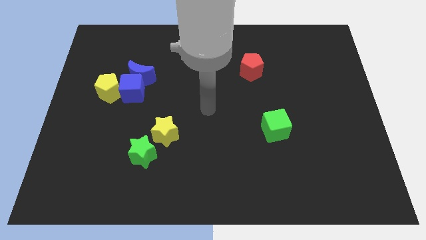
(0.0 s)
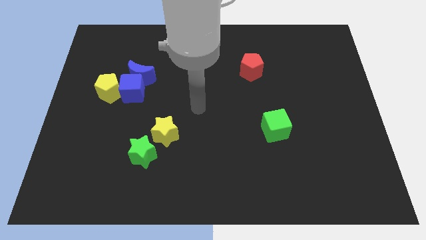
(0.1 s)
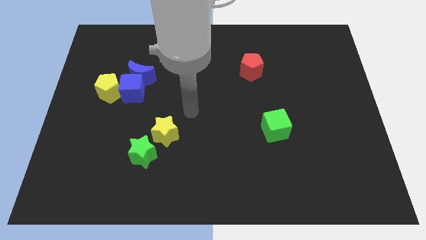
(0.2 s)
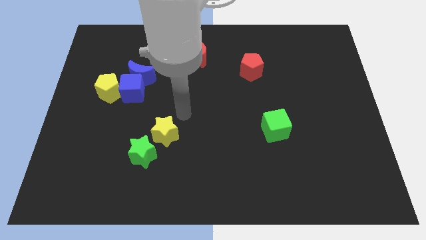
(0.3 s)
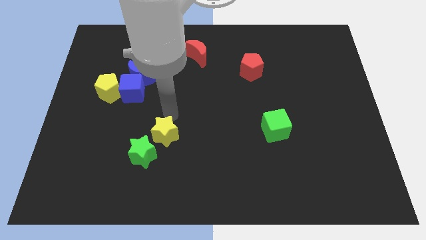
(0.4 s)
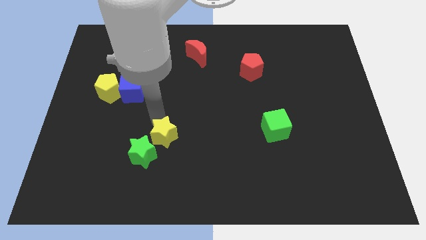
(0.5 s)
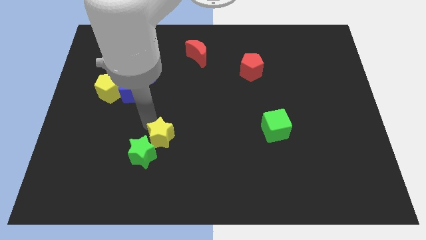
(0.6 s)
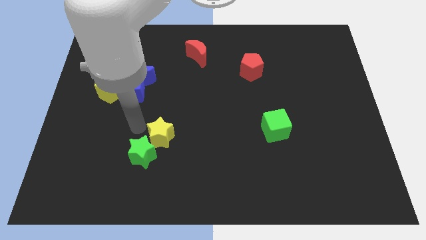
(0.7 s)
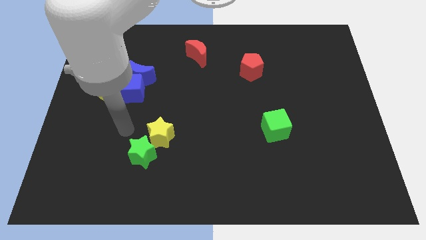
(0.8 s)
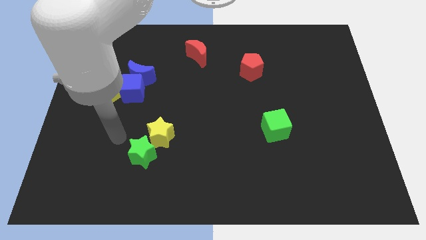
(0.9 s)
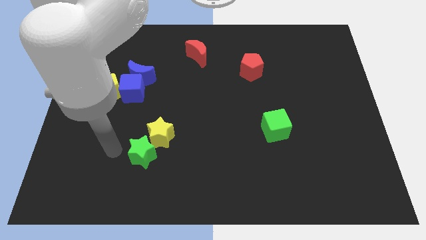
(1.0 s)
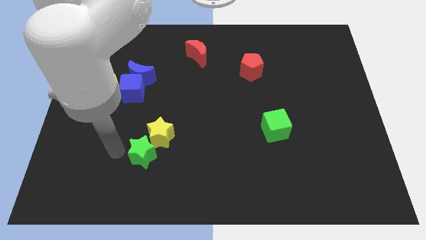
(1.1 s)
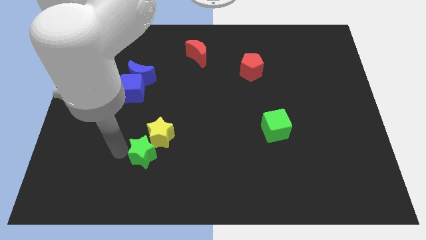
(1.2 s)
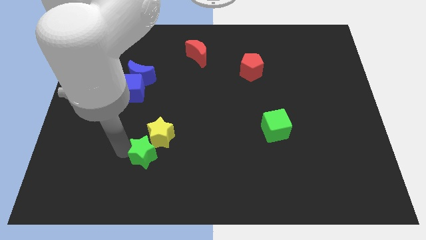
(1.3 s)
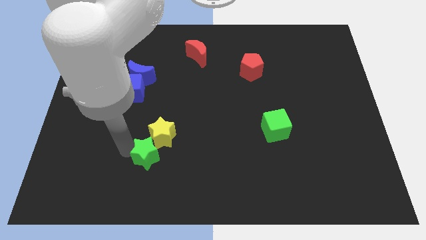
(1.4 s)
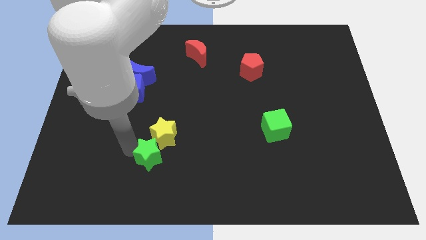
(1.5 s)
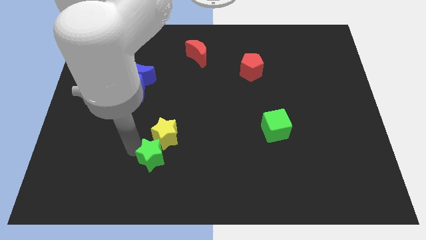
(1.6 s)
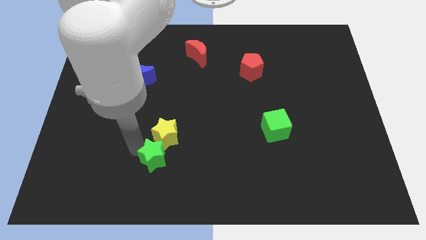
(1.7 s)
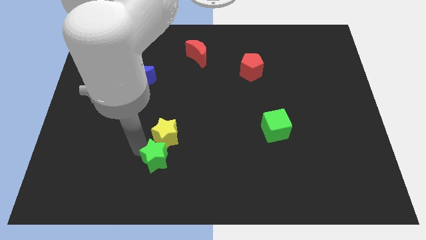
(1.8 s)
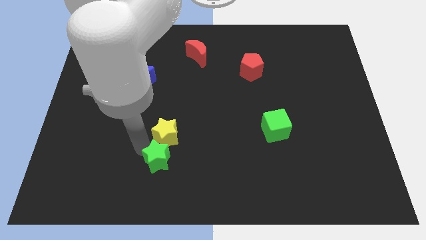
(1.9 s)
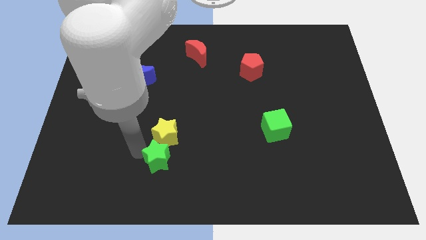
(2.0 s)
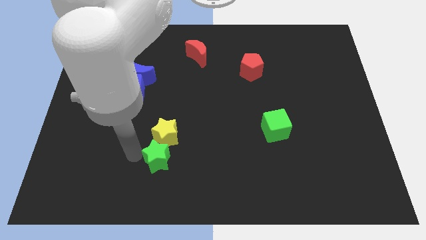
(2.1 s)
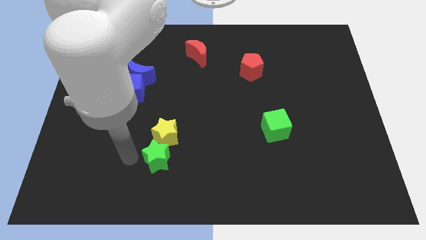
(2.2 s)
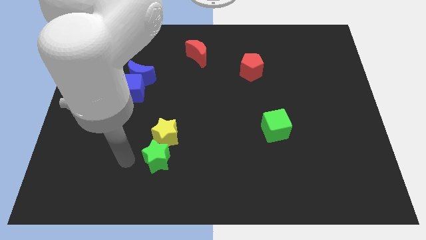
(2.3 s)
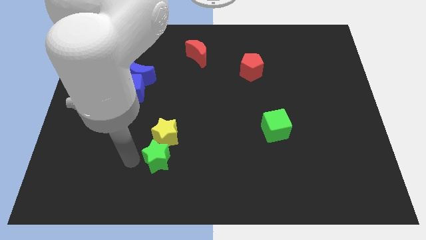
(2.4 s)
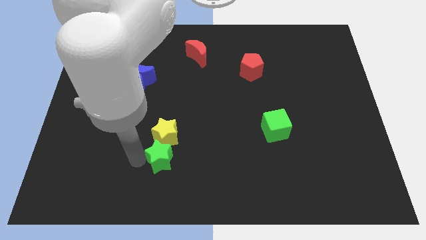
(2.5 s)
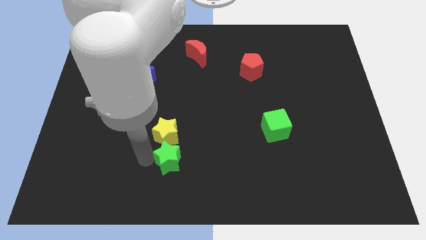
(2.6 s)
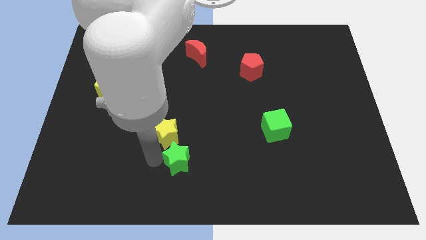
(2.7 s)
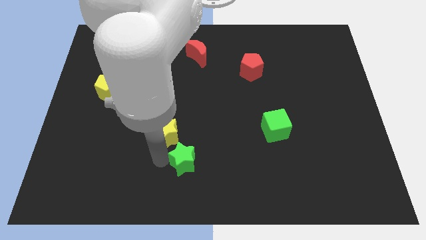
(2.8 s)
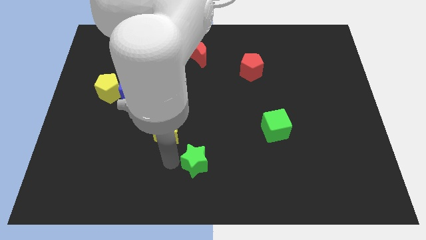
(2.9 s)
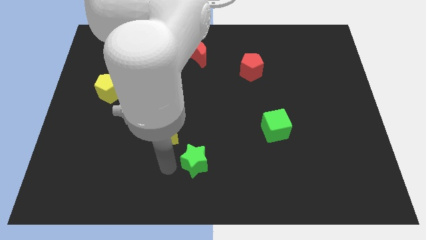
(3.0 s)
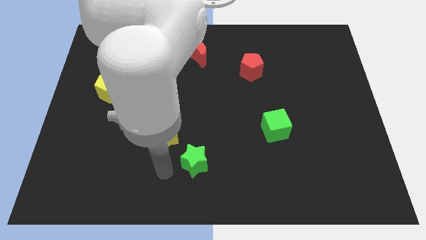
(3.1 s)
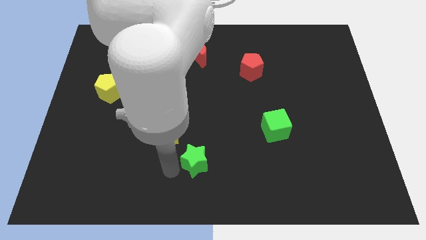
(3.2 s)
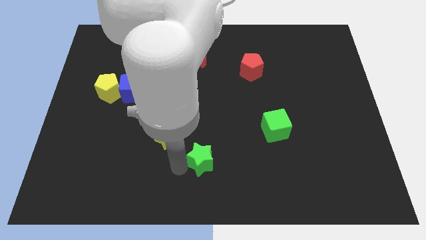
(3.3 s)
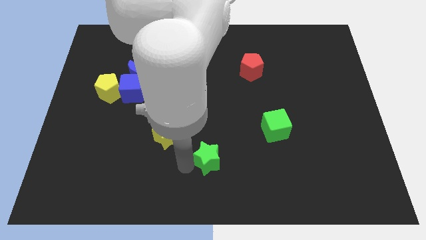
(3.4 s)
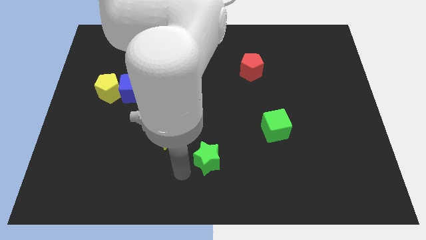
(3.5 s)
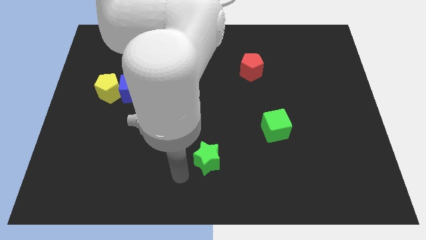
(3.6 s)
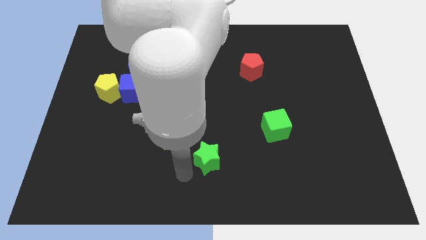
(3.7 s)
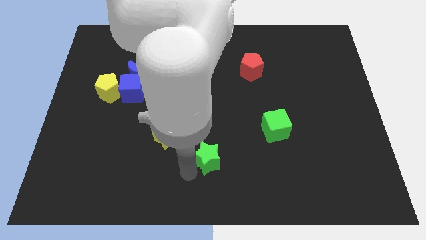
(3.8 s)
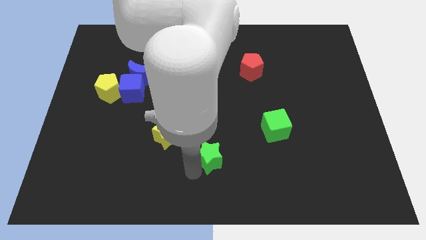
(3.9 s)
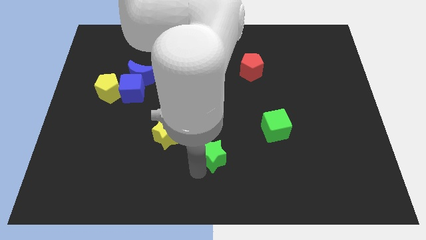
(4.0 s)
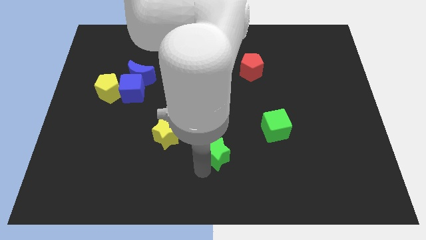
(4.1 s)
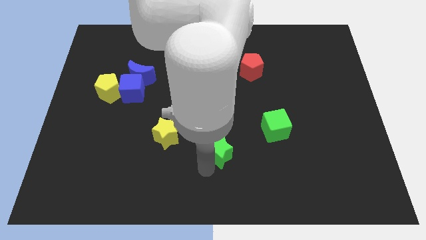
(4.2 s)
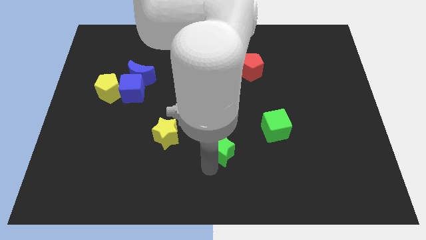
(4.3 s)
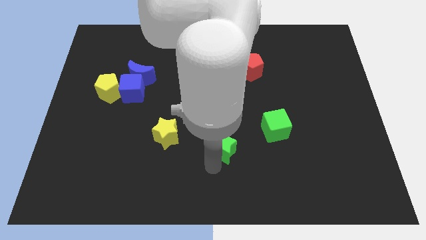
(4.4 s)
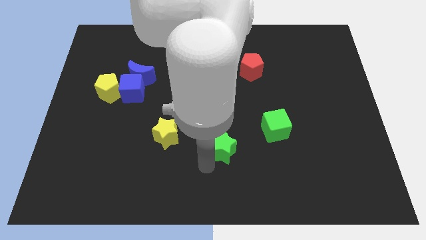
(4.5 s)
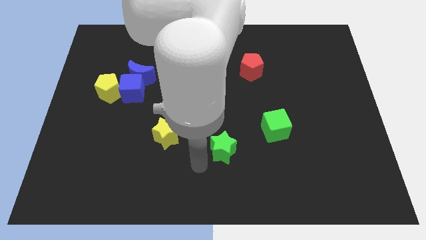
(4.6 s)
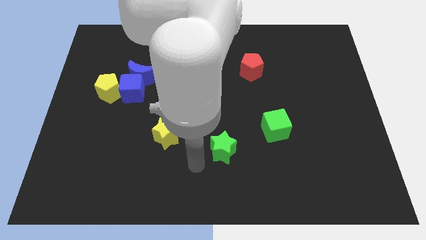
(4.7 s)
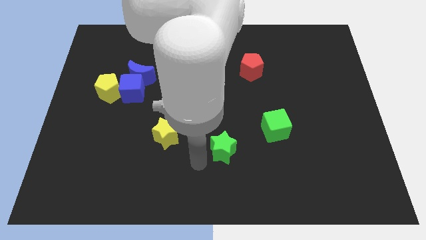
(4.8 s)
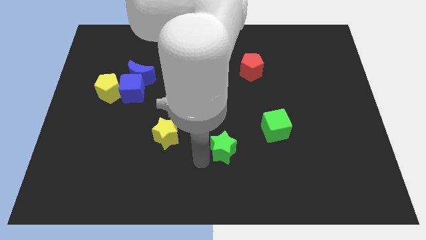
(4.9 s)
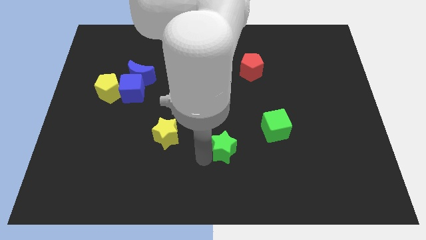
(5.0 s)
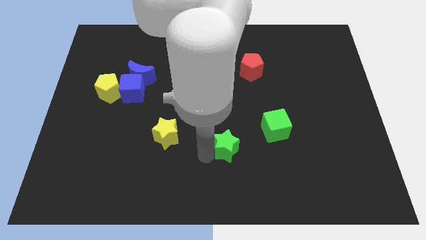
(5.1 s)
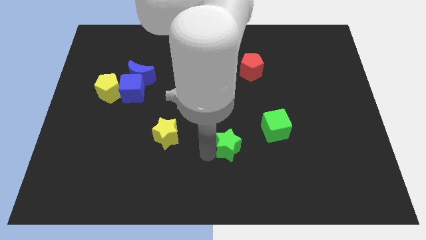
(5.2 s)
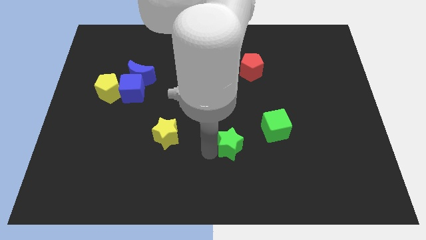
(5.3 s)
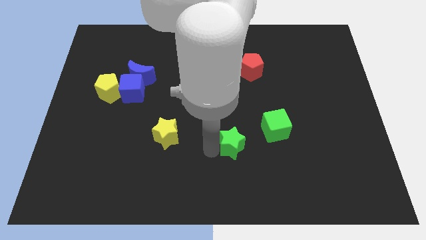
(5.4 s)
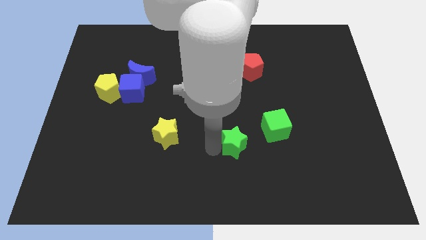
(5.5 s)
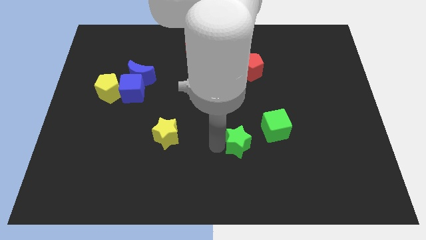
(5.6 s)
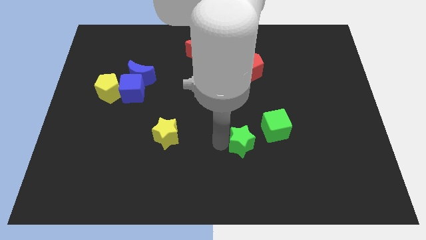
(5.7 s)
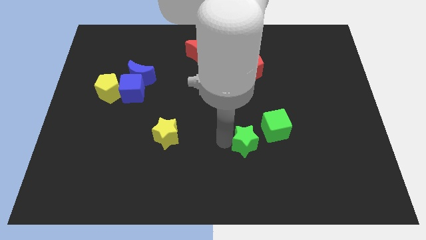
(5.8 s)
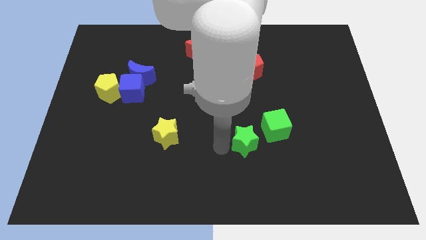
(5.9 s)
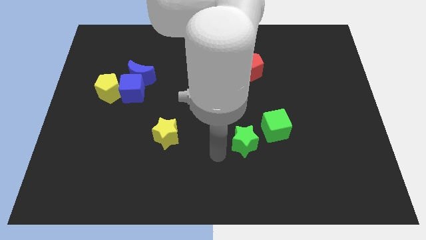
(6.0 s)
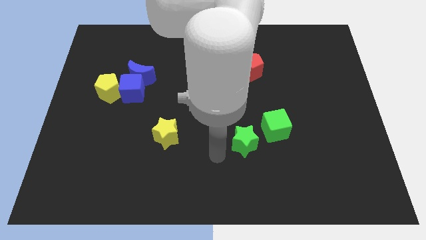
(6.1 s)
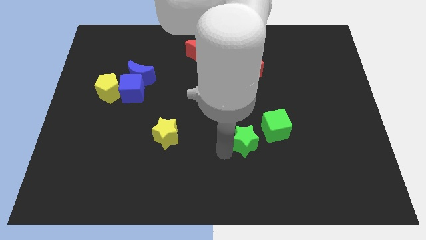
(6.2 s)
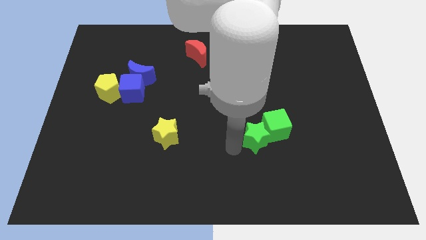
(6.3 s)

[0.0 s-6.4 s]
move the green star close to the green cube
